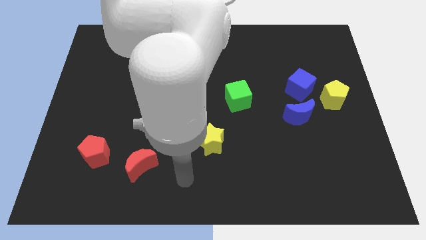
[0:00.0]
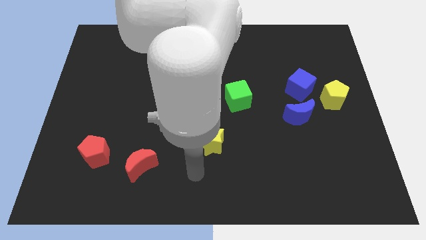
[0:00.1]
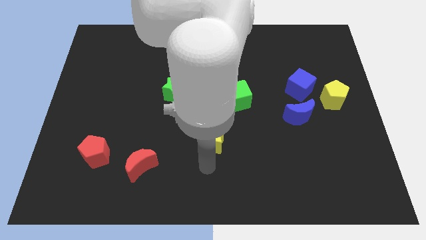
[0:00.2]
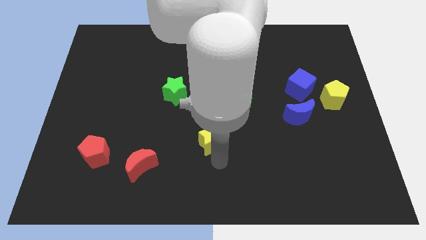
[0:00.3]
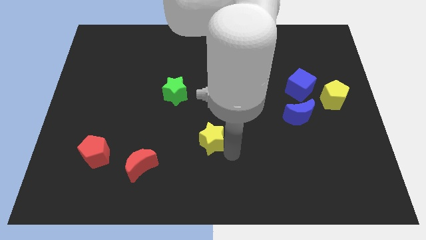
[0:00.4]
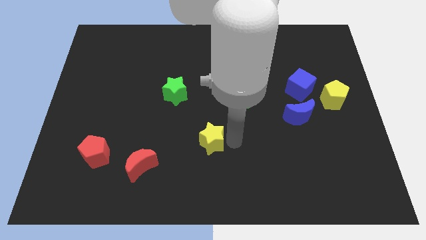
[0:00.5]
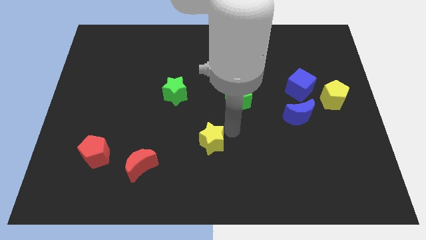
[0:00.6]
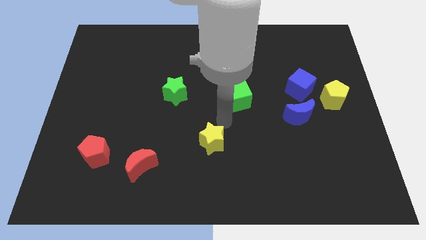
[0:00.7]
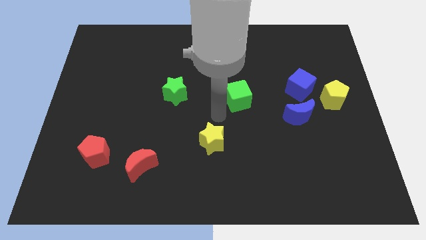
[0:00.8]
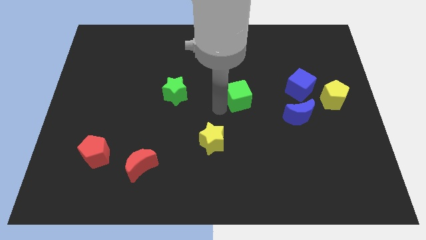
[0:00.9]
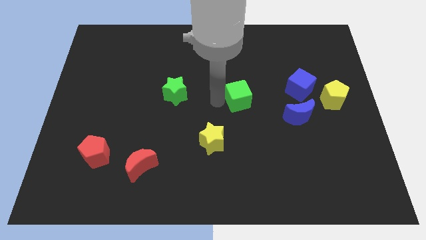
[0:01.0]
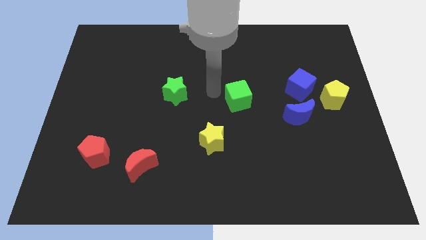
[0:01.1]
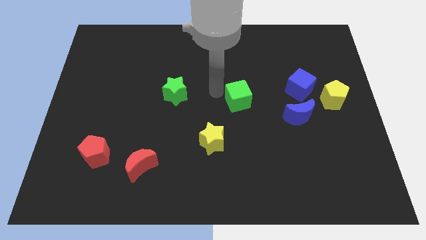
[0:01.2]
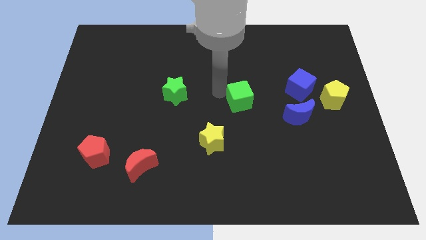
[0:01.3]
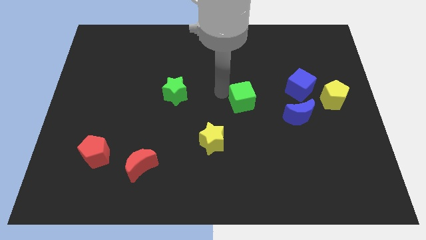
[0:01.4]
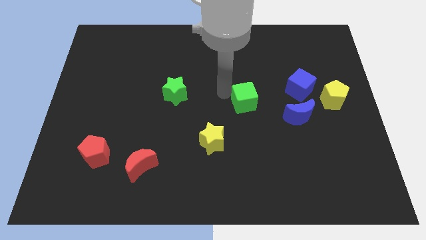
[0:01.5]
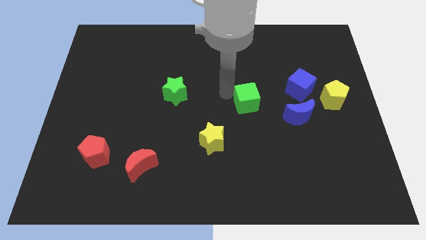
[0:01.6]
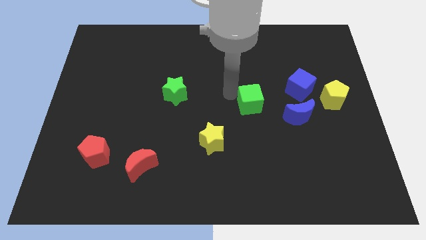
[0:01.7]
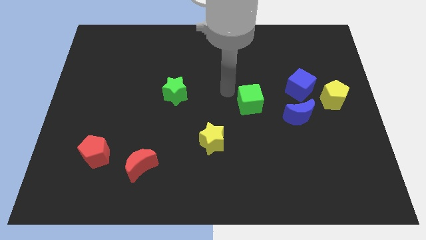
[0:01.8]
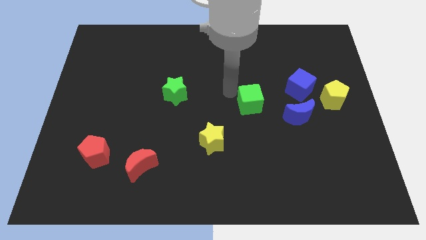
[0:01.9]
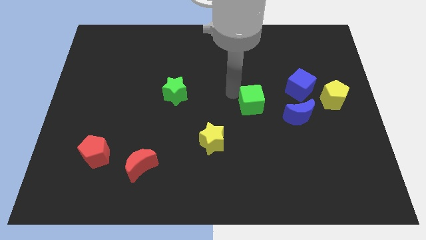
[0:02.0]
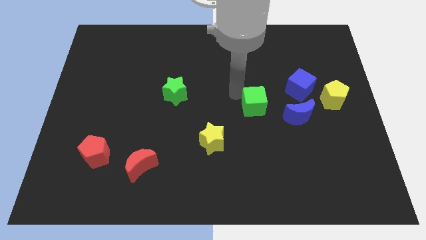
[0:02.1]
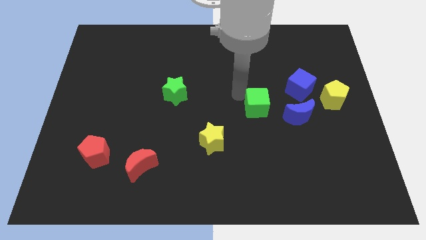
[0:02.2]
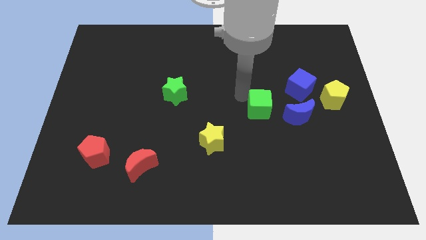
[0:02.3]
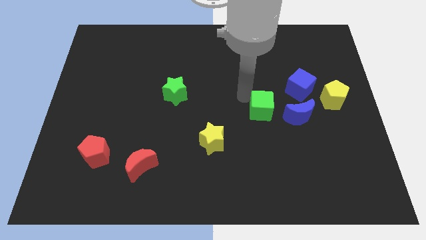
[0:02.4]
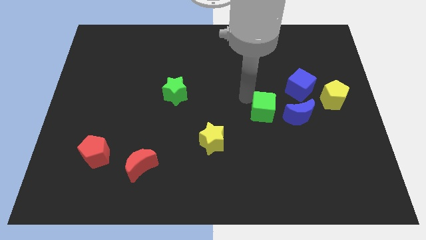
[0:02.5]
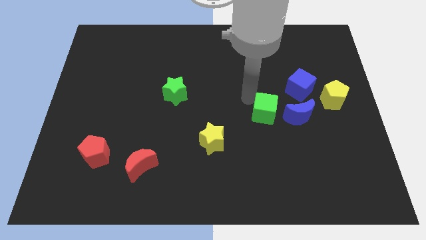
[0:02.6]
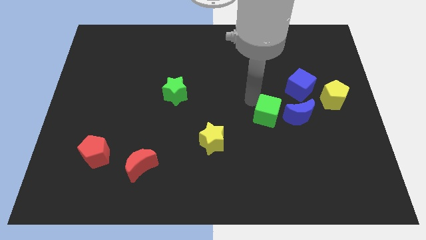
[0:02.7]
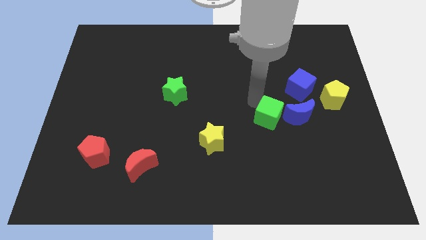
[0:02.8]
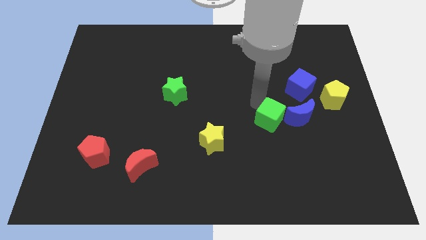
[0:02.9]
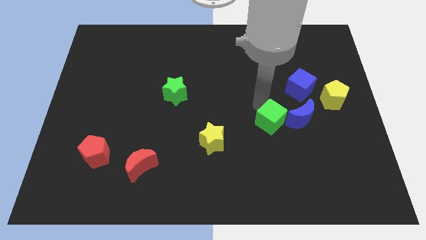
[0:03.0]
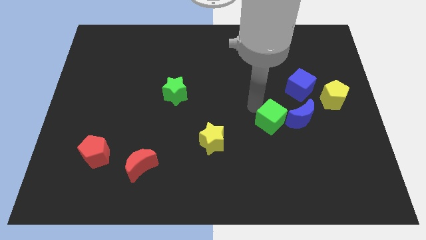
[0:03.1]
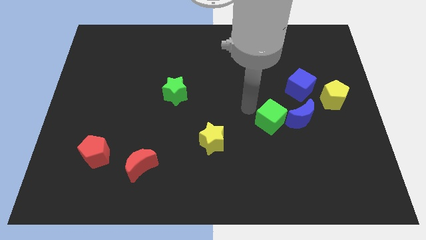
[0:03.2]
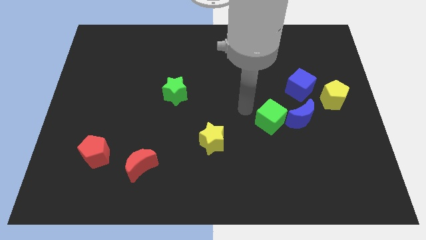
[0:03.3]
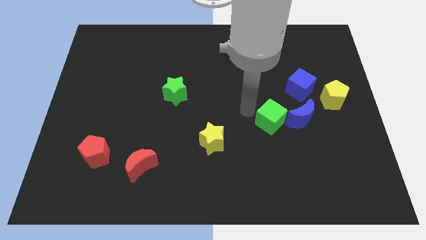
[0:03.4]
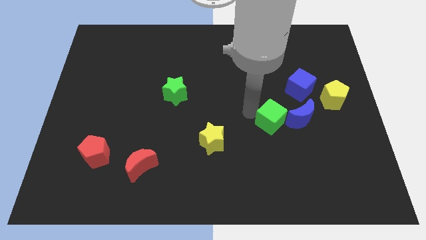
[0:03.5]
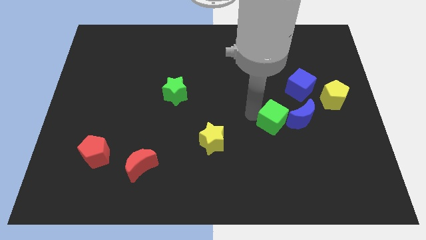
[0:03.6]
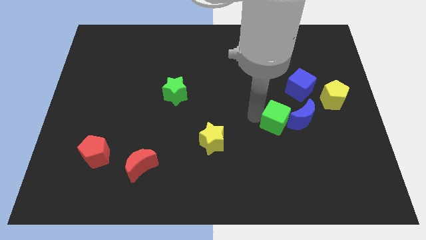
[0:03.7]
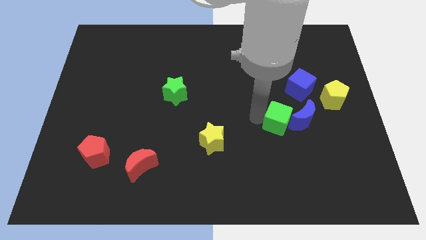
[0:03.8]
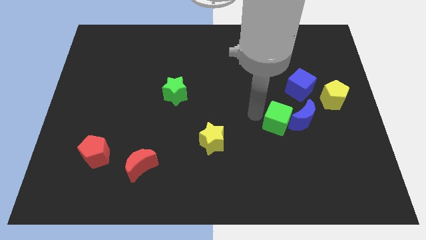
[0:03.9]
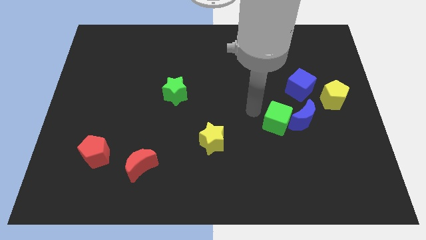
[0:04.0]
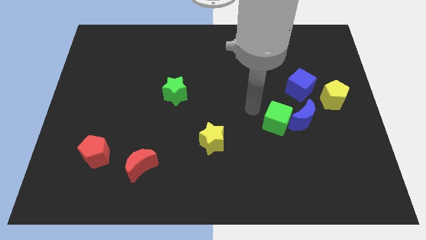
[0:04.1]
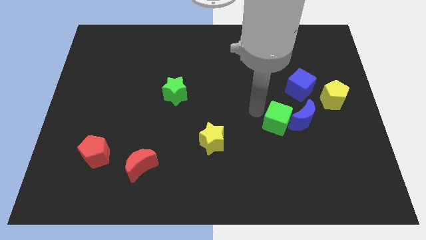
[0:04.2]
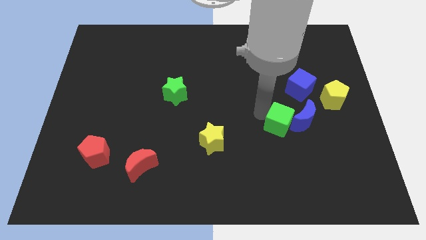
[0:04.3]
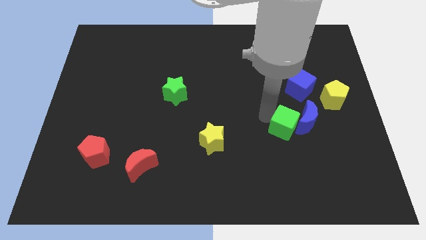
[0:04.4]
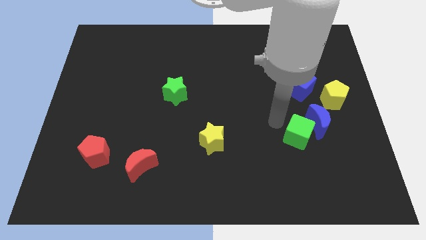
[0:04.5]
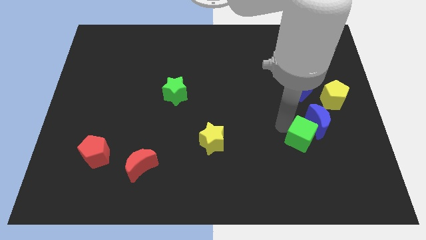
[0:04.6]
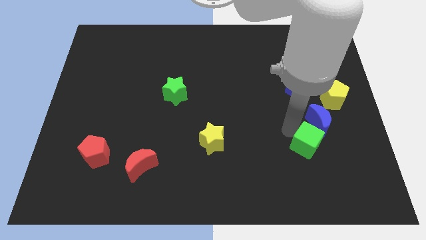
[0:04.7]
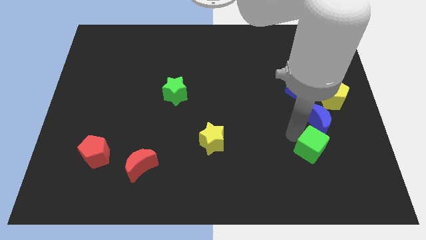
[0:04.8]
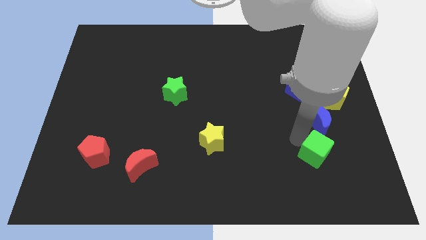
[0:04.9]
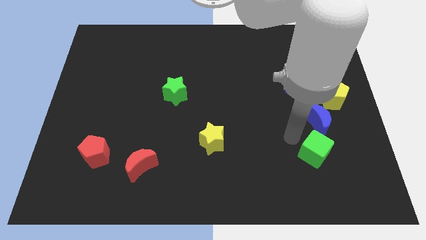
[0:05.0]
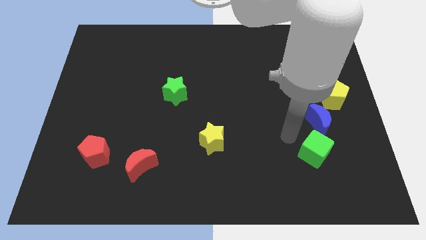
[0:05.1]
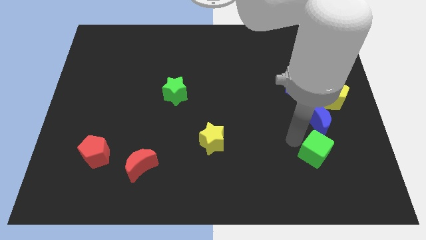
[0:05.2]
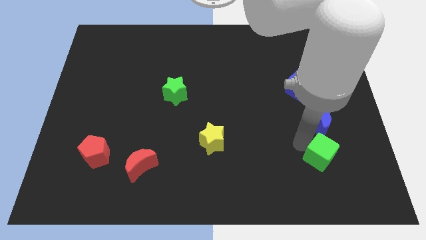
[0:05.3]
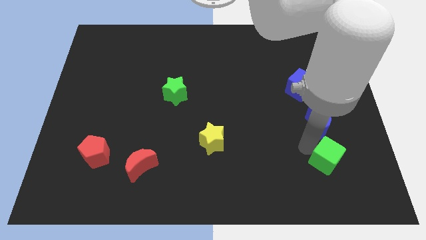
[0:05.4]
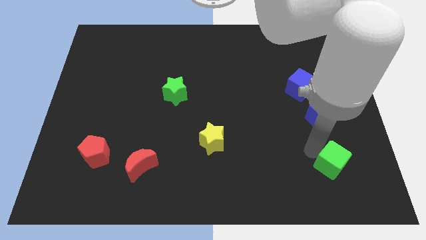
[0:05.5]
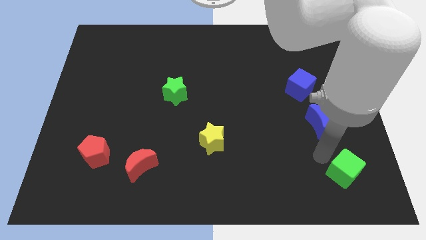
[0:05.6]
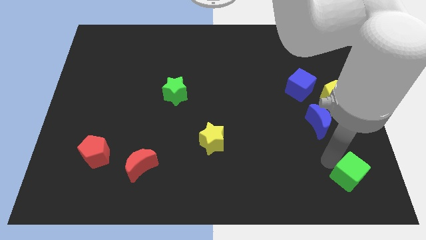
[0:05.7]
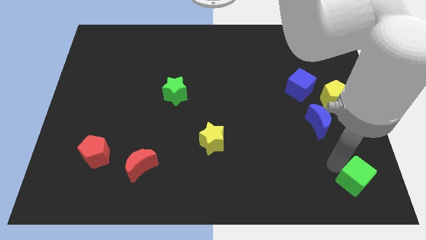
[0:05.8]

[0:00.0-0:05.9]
move the green cube to the lower right corner

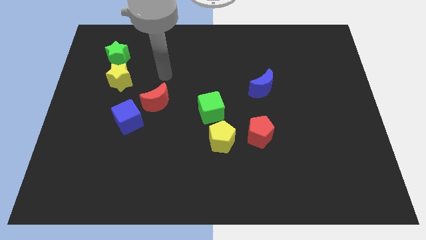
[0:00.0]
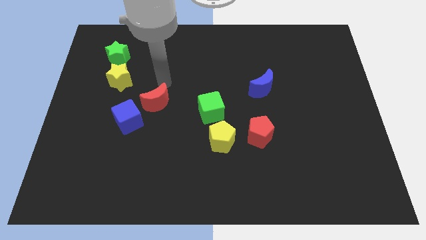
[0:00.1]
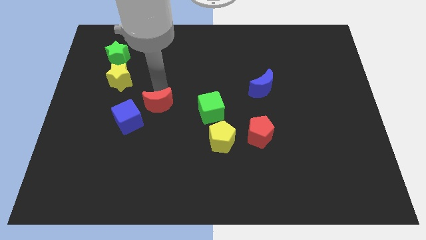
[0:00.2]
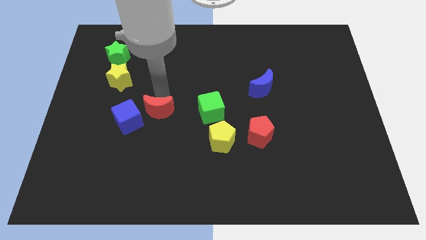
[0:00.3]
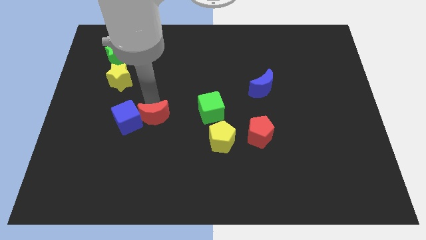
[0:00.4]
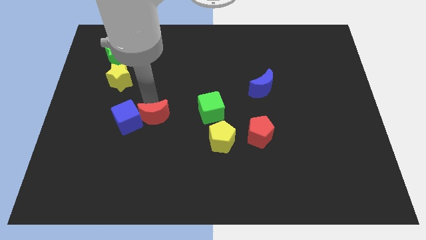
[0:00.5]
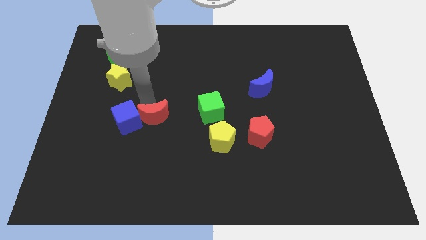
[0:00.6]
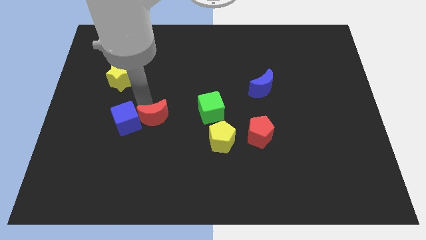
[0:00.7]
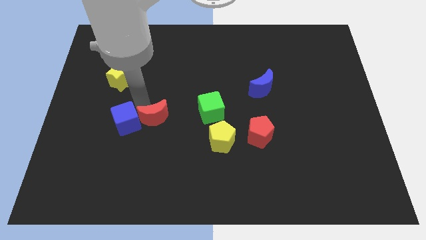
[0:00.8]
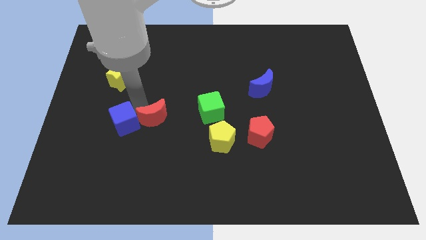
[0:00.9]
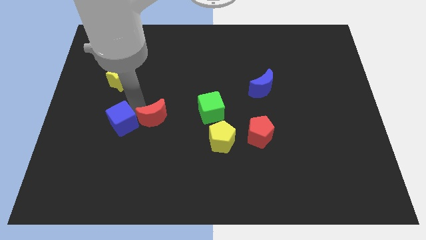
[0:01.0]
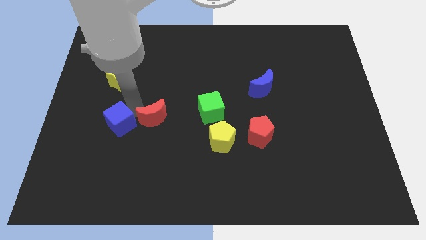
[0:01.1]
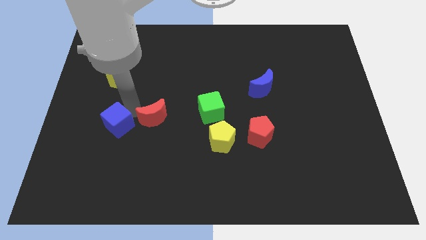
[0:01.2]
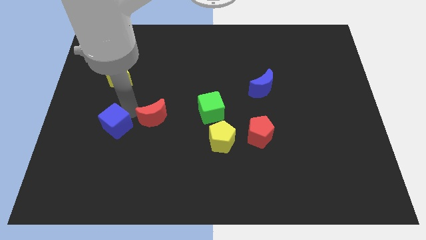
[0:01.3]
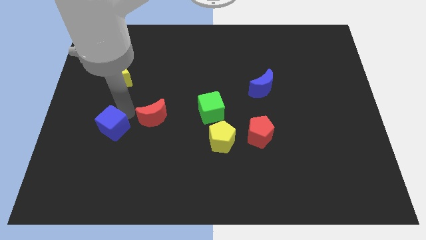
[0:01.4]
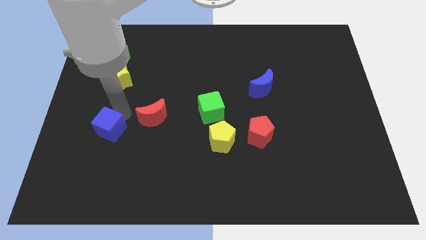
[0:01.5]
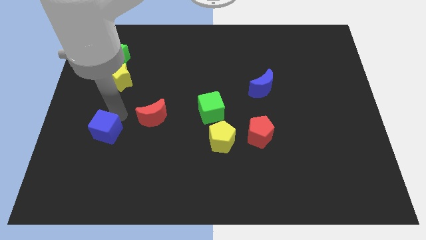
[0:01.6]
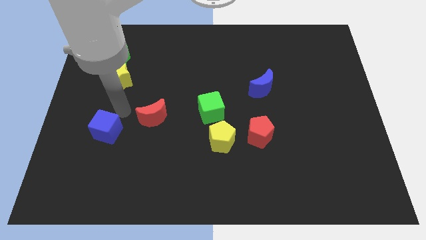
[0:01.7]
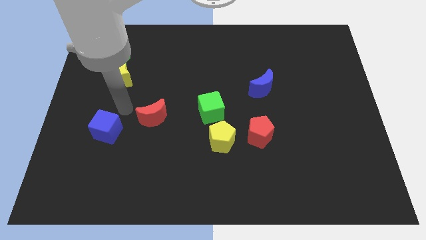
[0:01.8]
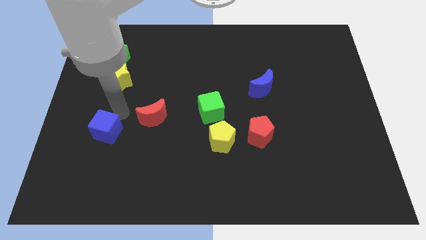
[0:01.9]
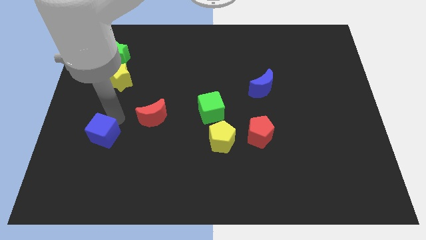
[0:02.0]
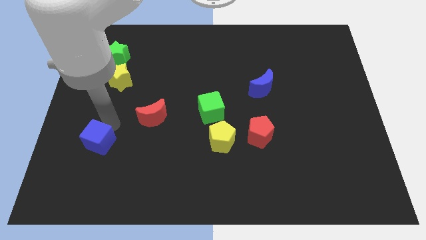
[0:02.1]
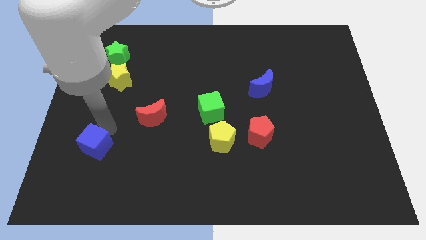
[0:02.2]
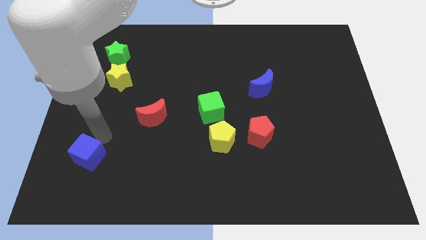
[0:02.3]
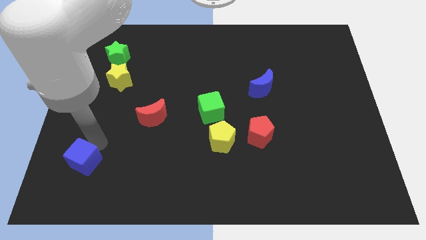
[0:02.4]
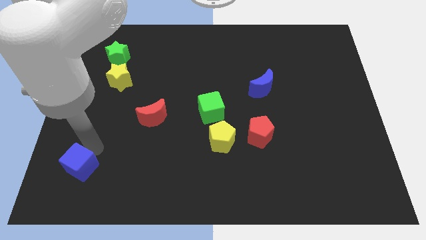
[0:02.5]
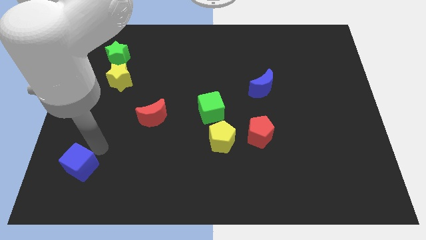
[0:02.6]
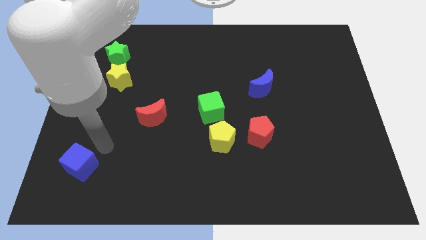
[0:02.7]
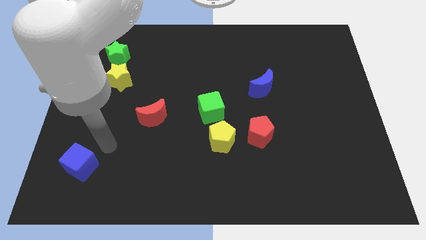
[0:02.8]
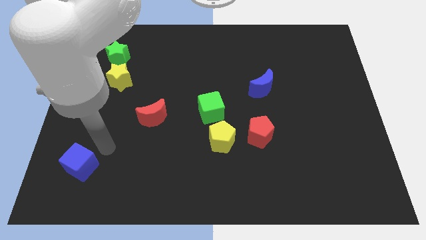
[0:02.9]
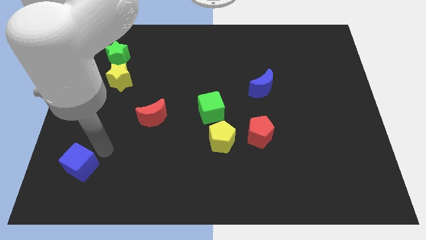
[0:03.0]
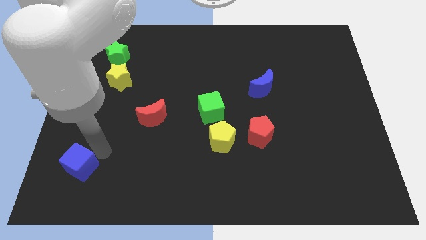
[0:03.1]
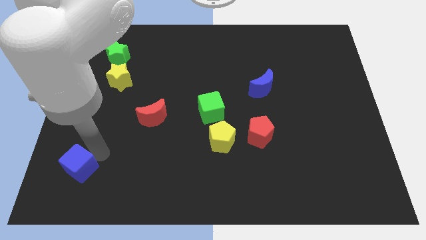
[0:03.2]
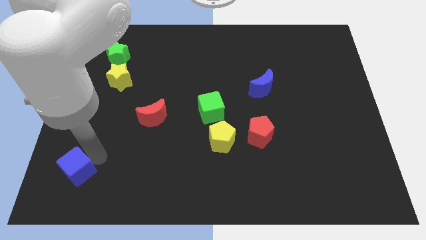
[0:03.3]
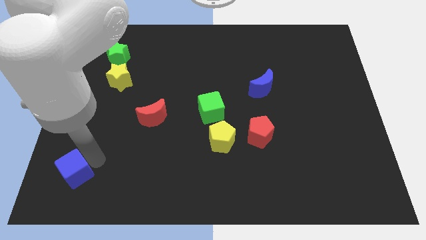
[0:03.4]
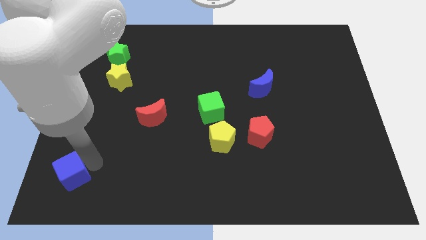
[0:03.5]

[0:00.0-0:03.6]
move the blue cube to the bottom left corner
